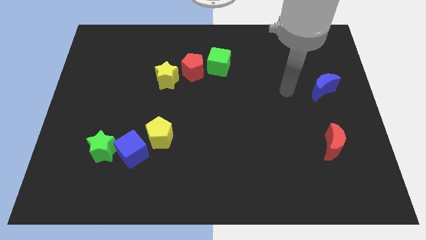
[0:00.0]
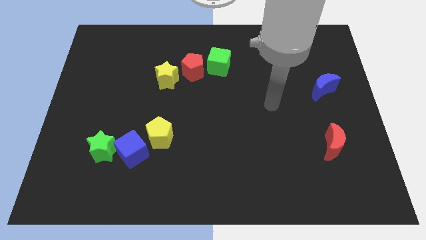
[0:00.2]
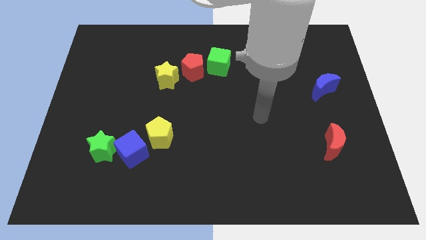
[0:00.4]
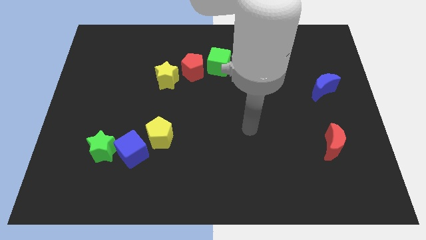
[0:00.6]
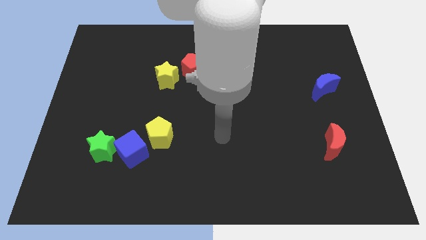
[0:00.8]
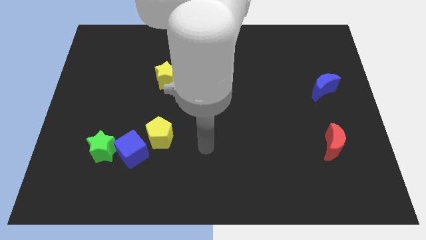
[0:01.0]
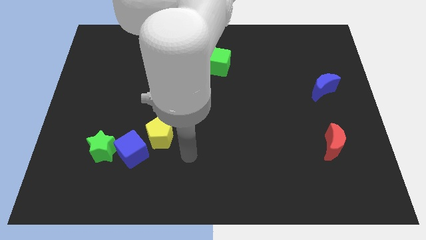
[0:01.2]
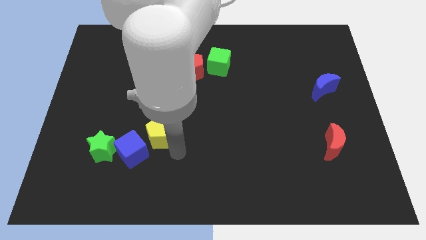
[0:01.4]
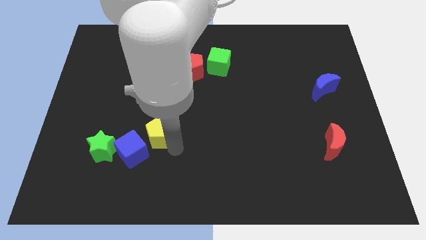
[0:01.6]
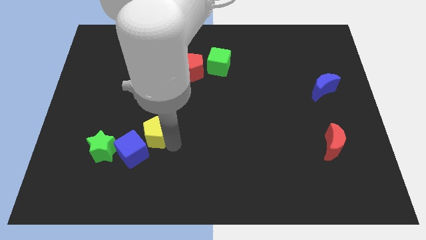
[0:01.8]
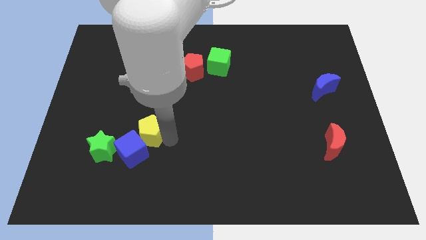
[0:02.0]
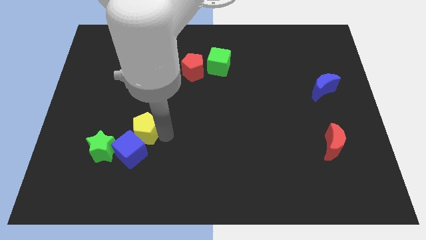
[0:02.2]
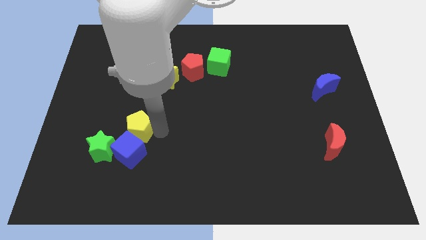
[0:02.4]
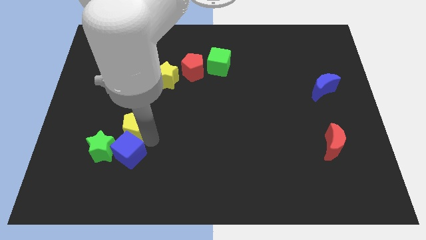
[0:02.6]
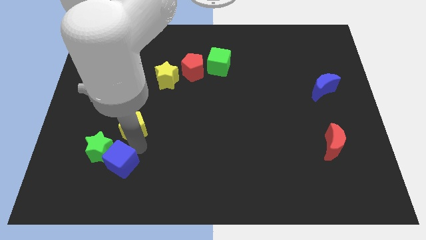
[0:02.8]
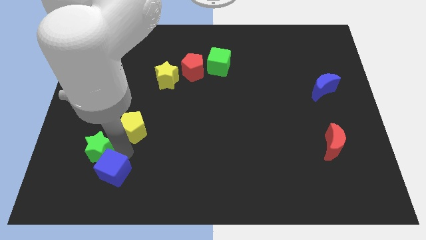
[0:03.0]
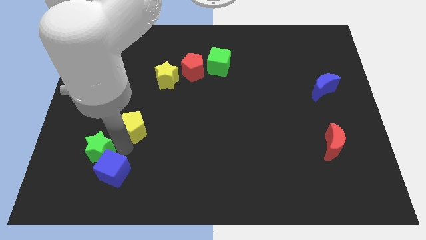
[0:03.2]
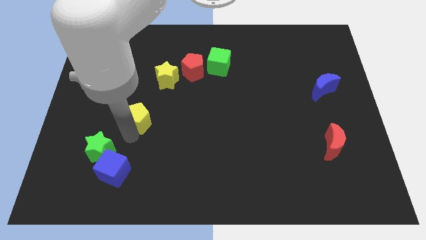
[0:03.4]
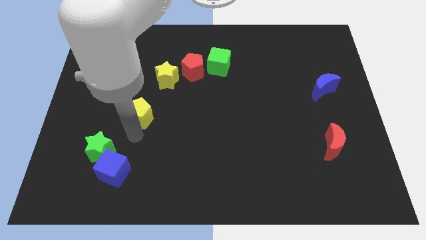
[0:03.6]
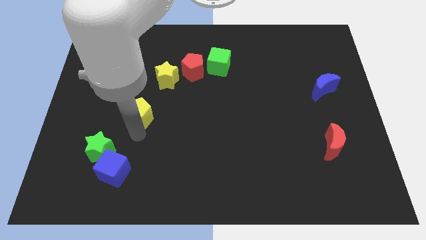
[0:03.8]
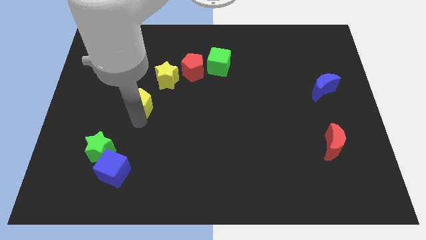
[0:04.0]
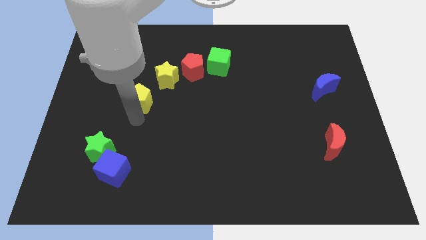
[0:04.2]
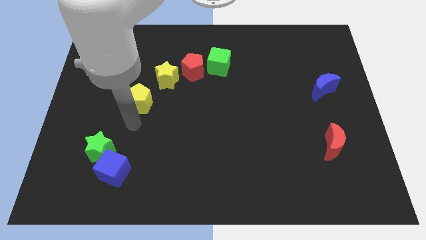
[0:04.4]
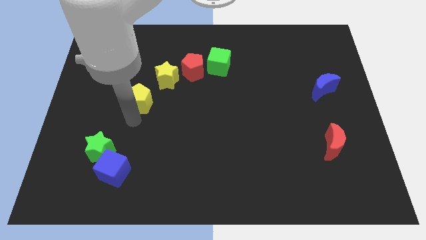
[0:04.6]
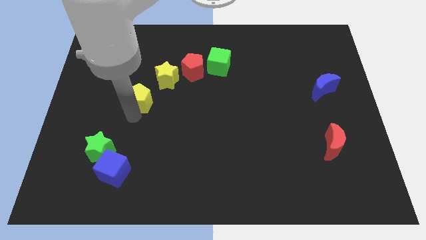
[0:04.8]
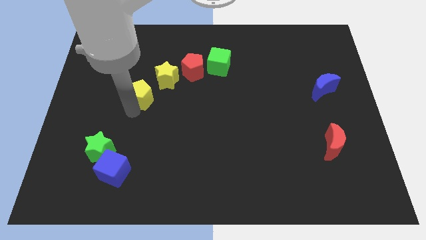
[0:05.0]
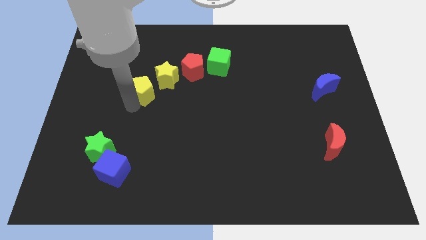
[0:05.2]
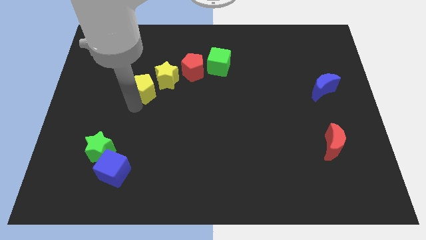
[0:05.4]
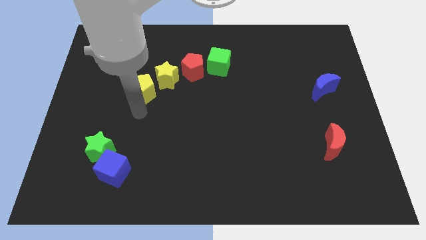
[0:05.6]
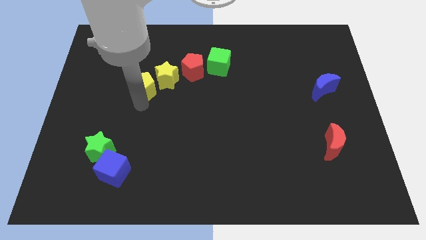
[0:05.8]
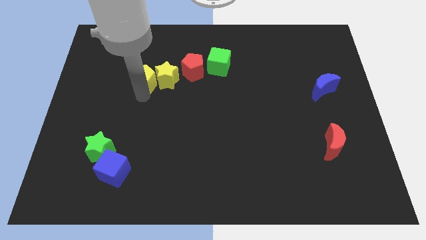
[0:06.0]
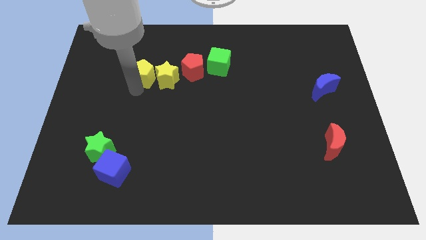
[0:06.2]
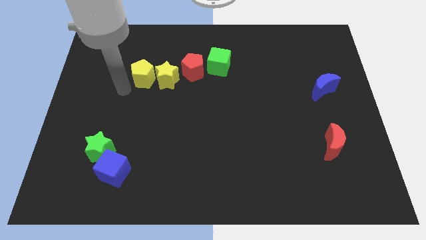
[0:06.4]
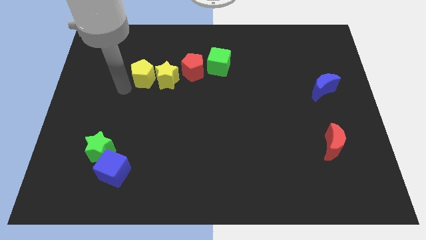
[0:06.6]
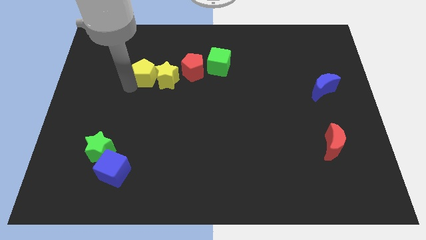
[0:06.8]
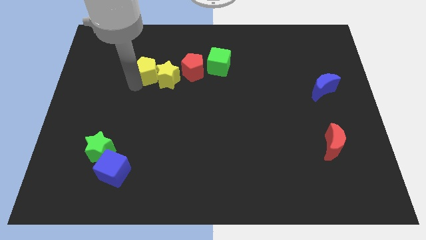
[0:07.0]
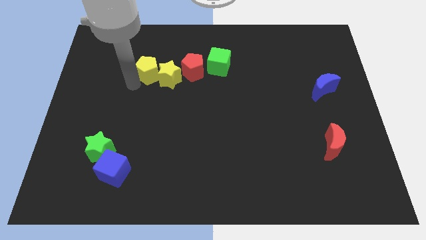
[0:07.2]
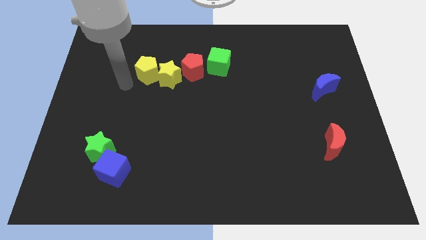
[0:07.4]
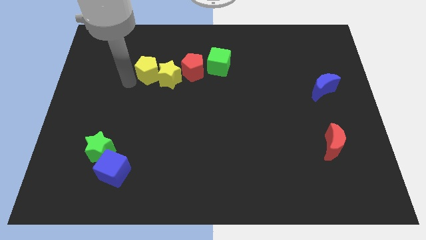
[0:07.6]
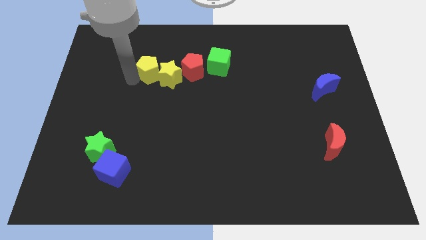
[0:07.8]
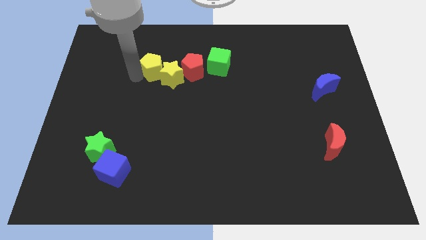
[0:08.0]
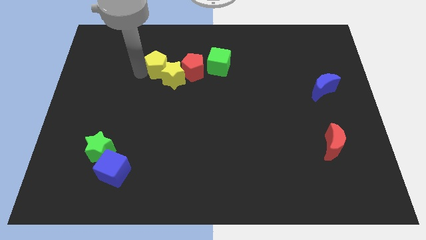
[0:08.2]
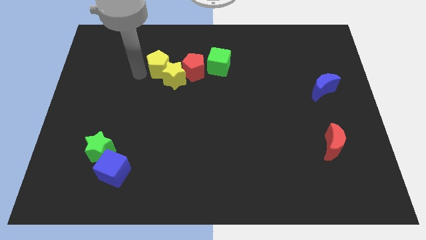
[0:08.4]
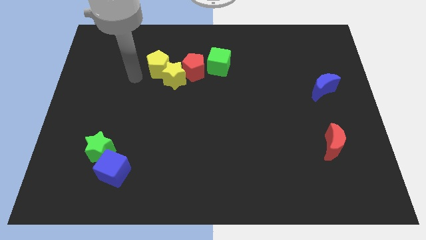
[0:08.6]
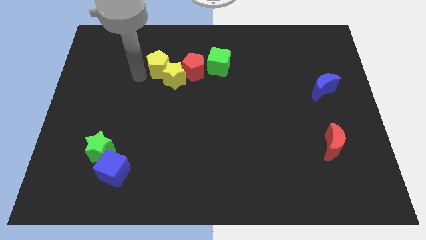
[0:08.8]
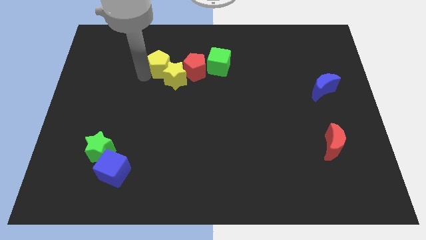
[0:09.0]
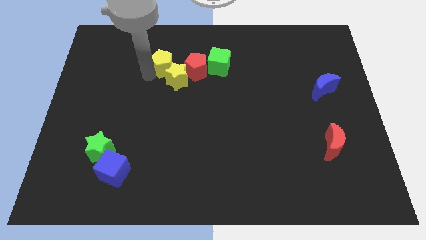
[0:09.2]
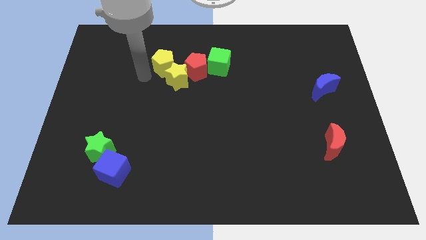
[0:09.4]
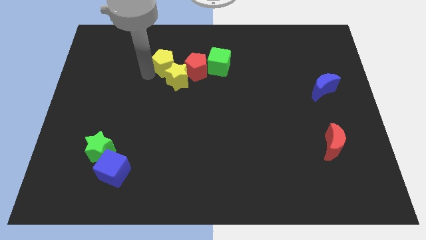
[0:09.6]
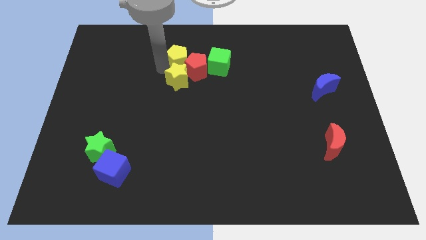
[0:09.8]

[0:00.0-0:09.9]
push the yellow pentagon to the top right of the yellow star

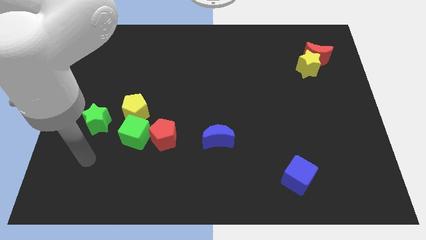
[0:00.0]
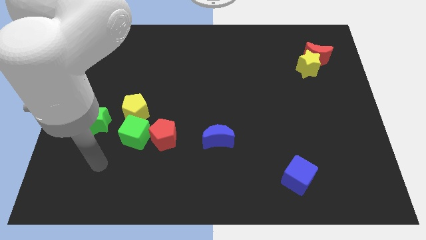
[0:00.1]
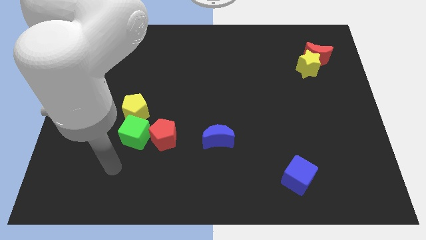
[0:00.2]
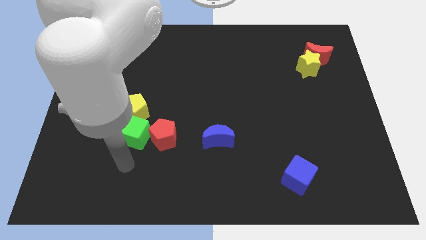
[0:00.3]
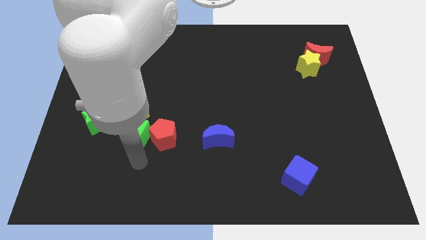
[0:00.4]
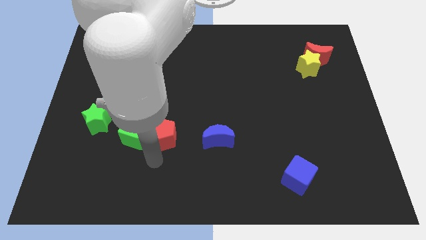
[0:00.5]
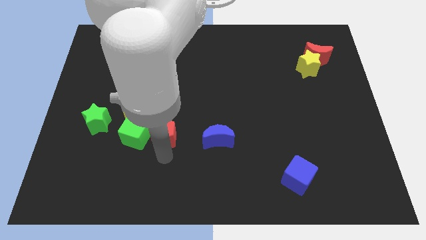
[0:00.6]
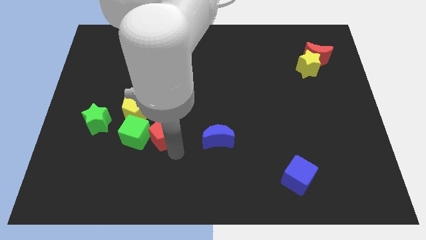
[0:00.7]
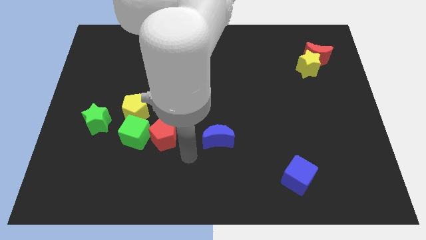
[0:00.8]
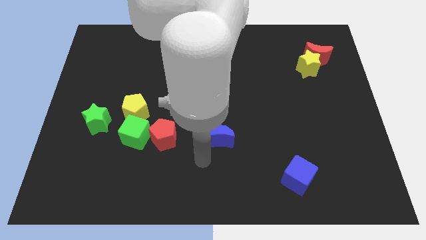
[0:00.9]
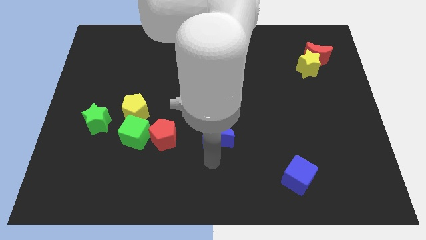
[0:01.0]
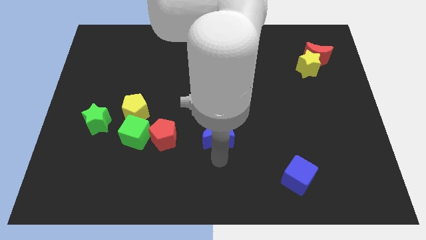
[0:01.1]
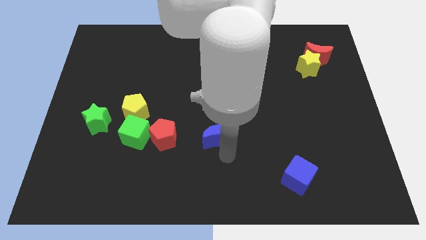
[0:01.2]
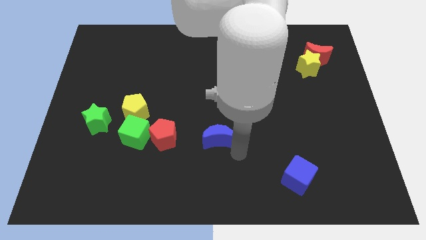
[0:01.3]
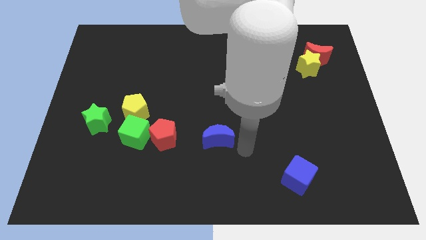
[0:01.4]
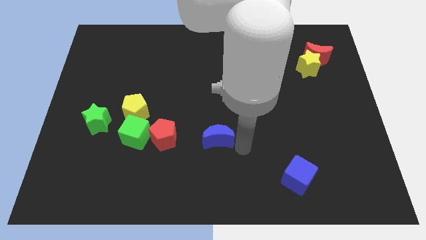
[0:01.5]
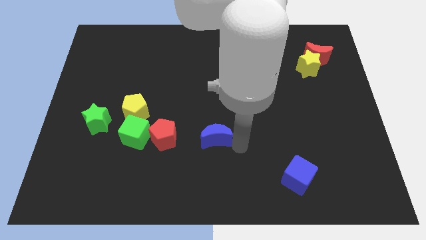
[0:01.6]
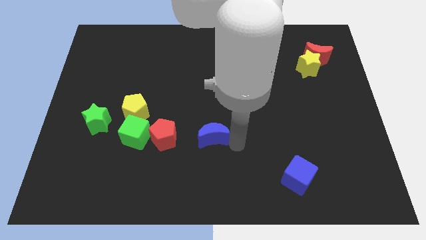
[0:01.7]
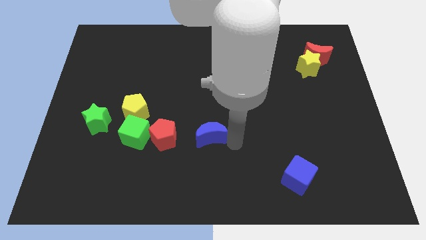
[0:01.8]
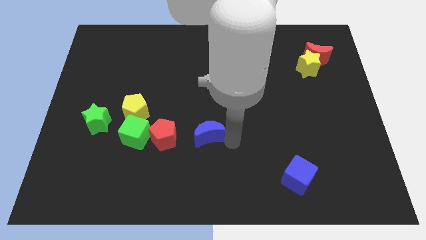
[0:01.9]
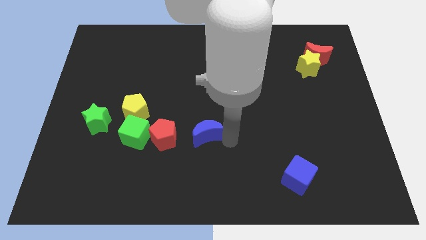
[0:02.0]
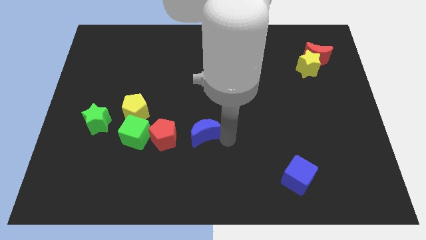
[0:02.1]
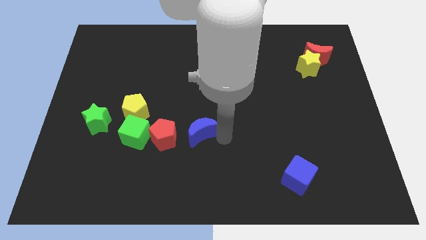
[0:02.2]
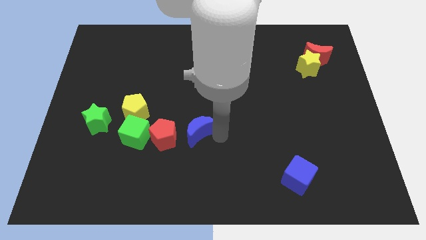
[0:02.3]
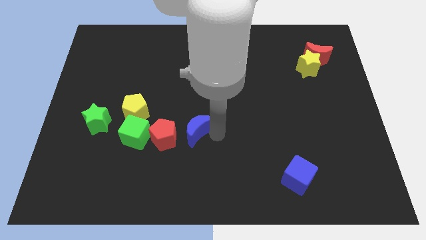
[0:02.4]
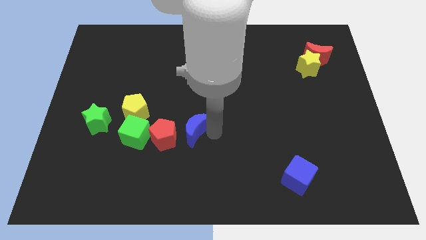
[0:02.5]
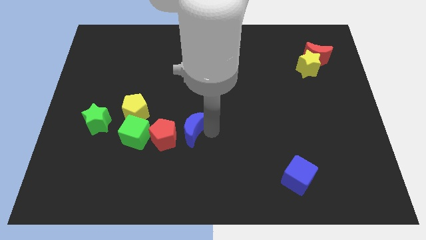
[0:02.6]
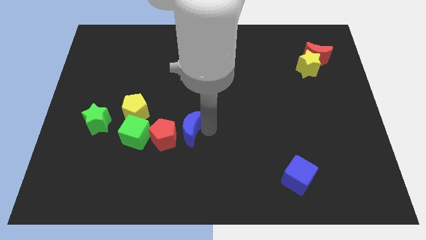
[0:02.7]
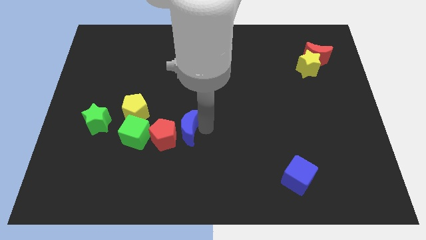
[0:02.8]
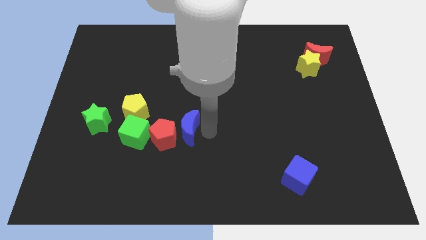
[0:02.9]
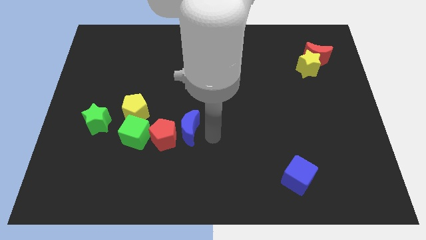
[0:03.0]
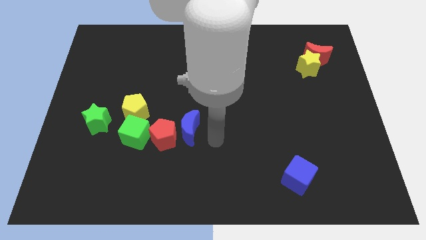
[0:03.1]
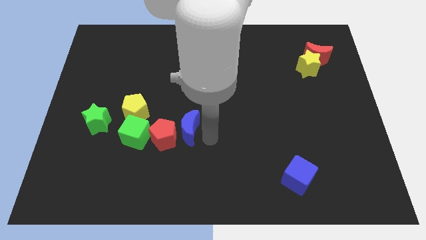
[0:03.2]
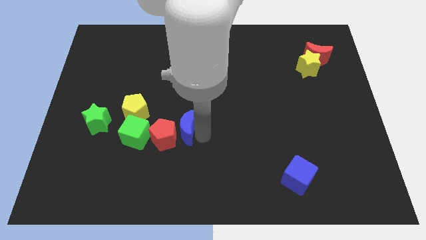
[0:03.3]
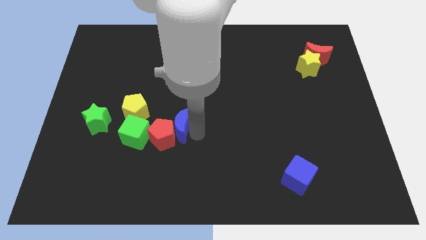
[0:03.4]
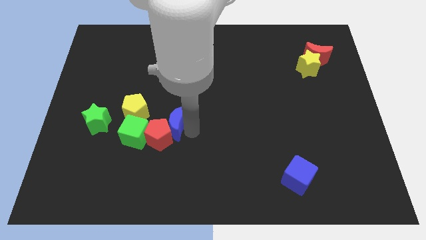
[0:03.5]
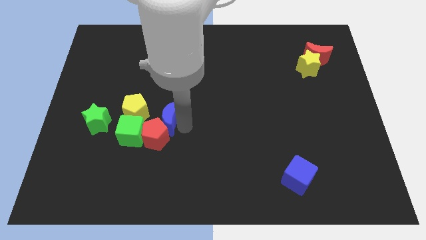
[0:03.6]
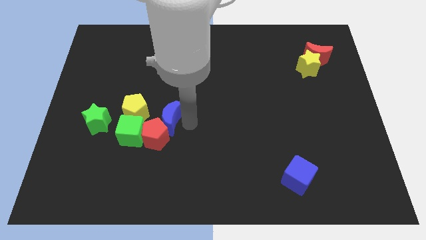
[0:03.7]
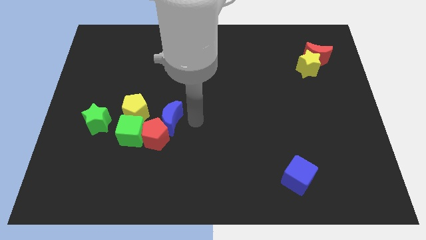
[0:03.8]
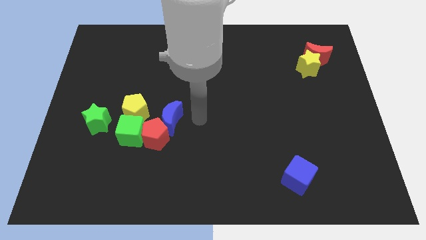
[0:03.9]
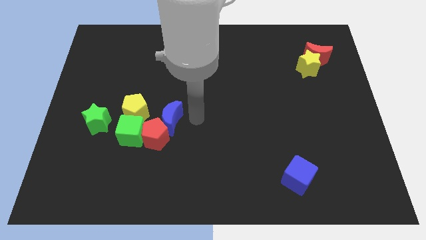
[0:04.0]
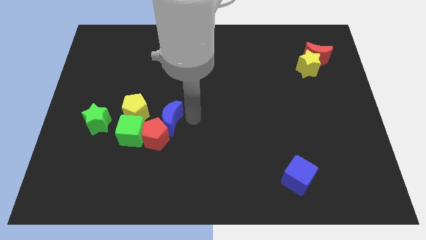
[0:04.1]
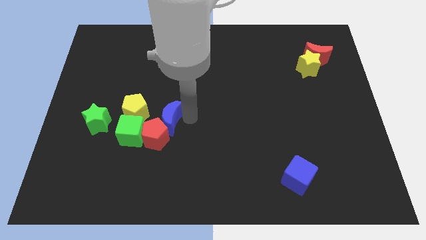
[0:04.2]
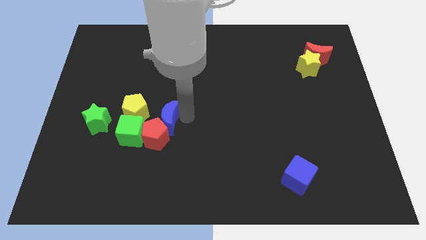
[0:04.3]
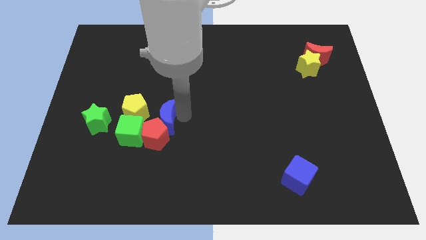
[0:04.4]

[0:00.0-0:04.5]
move the blue moon just right of the green star
